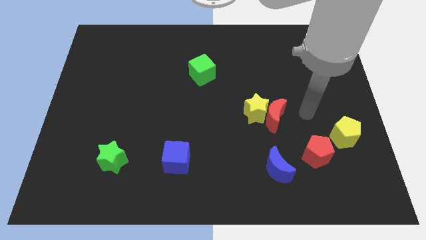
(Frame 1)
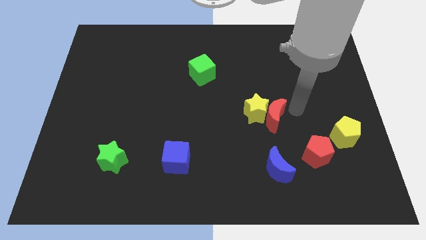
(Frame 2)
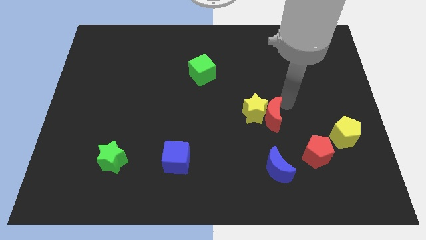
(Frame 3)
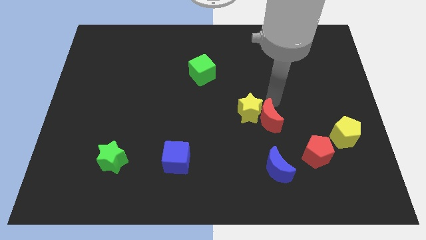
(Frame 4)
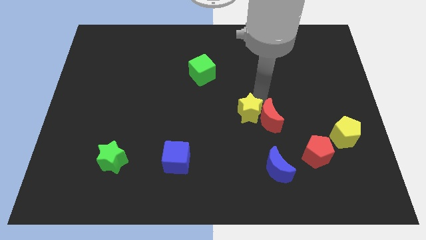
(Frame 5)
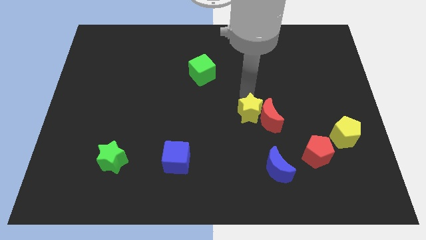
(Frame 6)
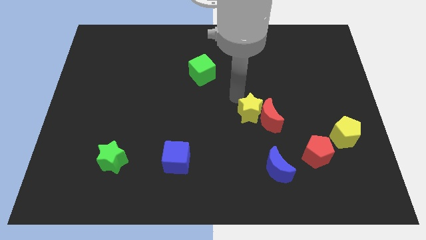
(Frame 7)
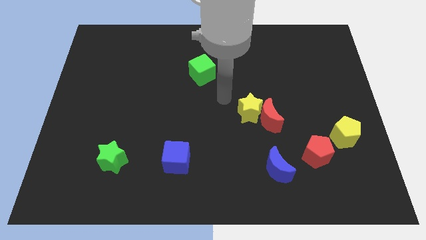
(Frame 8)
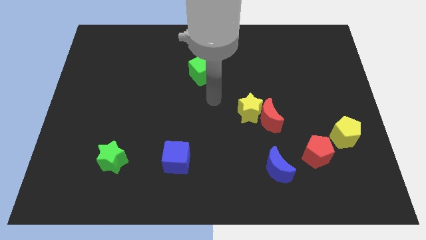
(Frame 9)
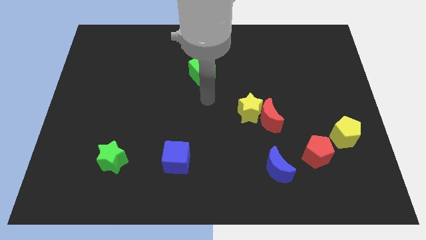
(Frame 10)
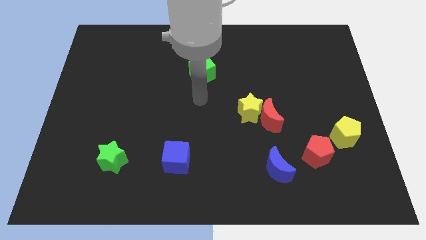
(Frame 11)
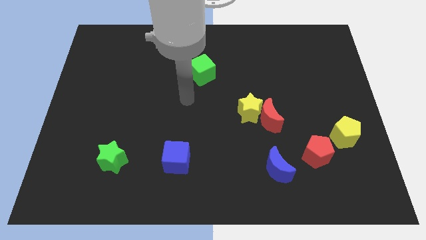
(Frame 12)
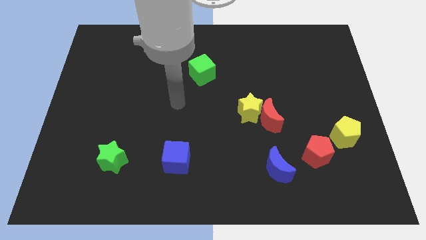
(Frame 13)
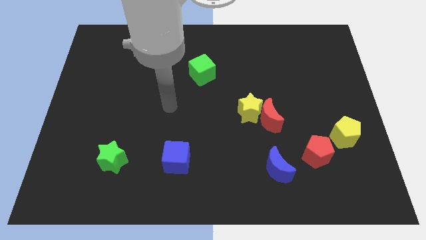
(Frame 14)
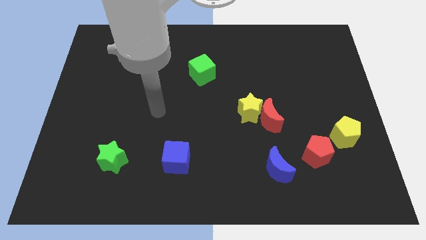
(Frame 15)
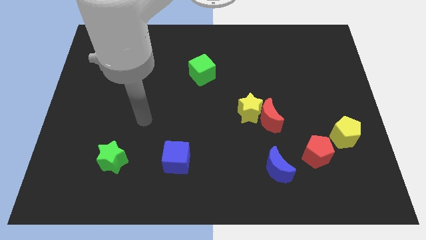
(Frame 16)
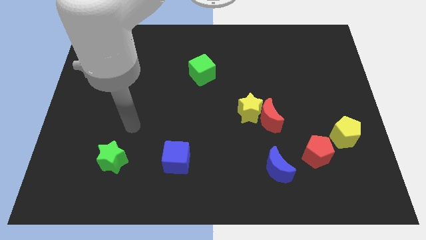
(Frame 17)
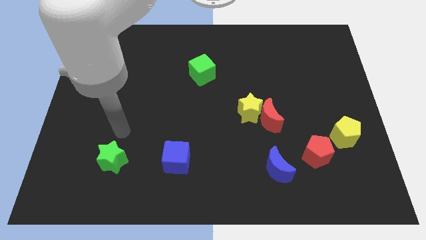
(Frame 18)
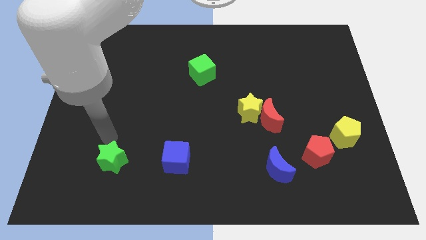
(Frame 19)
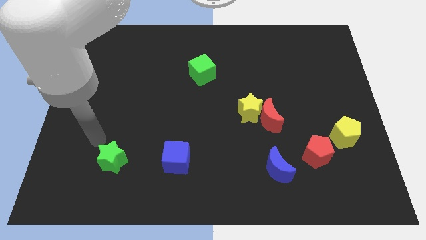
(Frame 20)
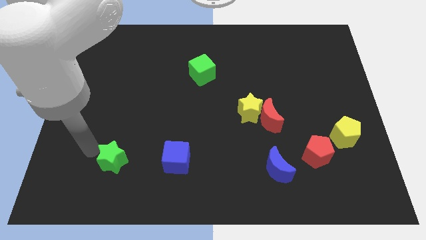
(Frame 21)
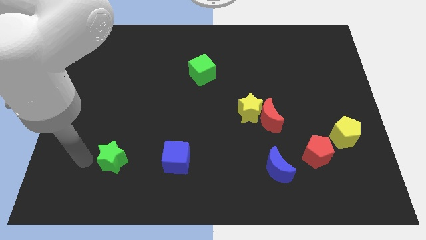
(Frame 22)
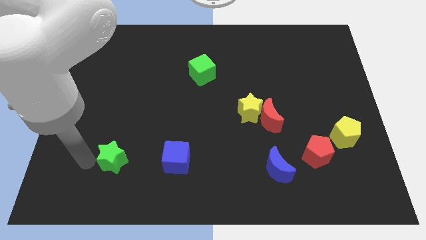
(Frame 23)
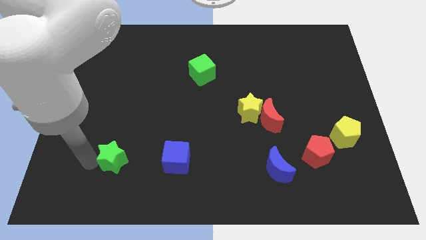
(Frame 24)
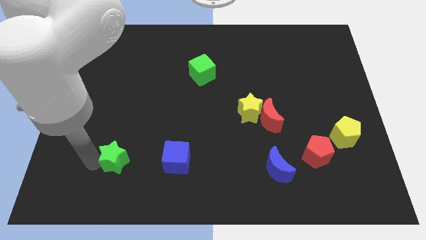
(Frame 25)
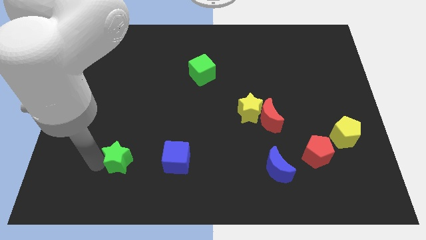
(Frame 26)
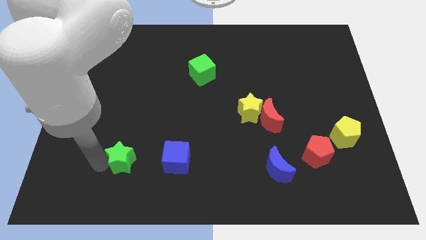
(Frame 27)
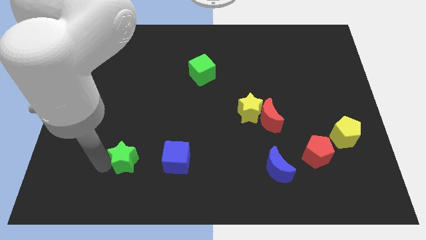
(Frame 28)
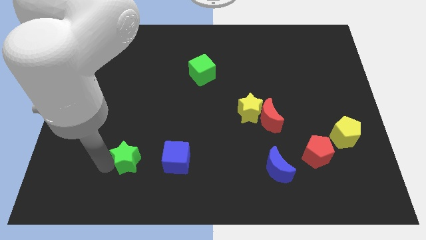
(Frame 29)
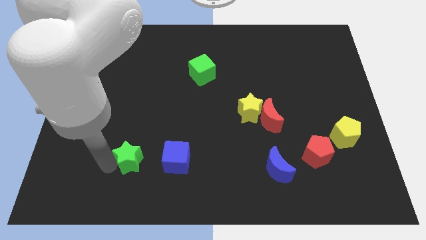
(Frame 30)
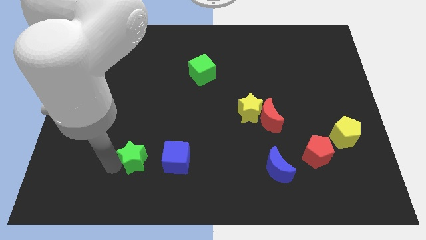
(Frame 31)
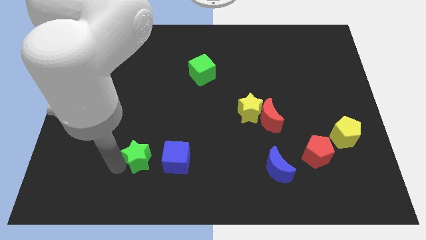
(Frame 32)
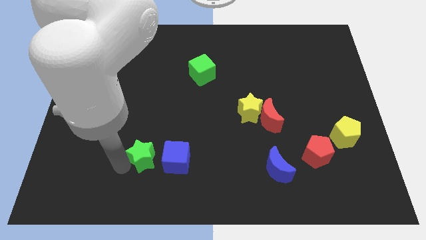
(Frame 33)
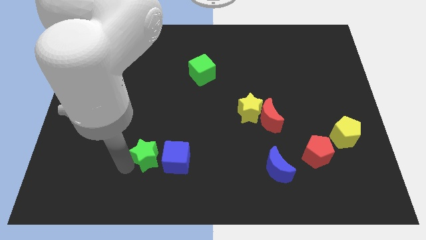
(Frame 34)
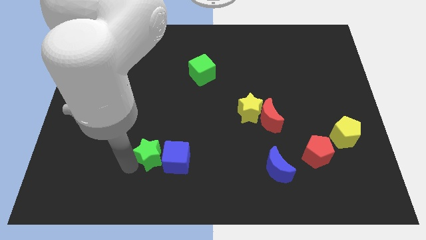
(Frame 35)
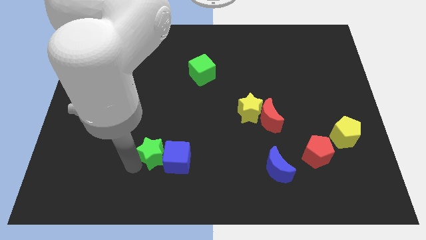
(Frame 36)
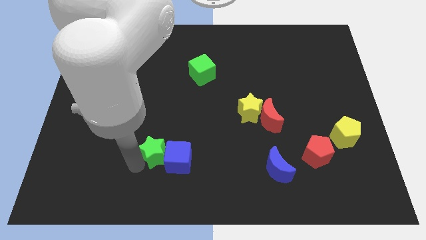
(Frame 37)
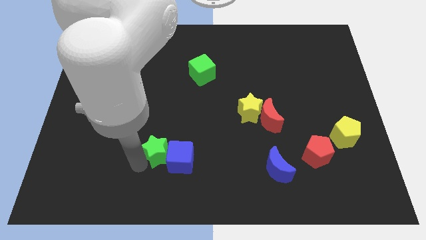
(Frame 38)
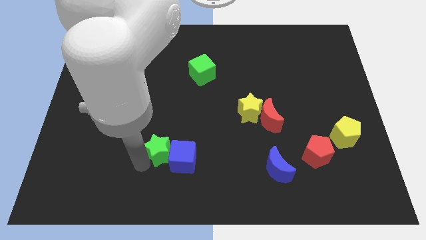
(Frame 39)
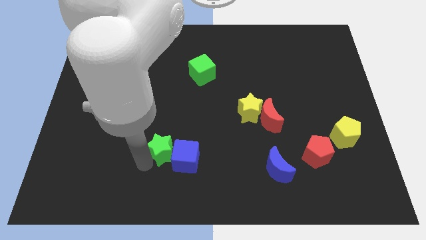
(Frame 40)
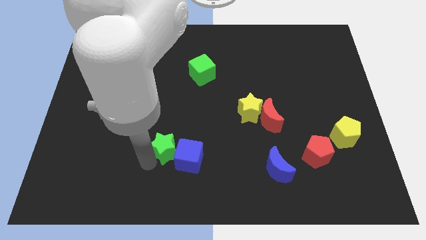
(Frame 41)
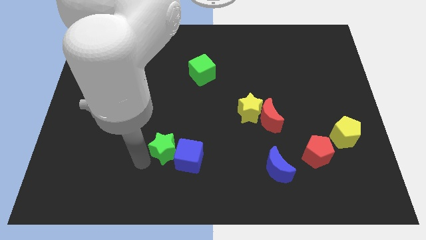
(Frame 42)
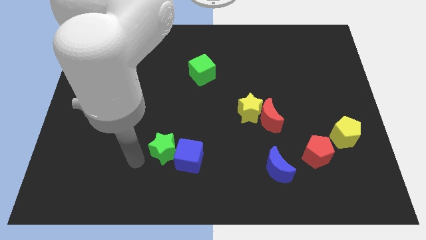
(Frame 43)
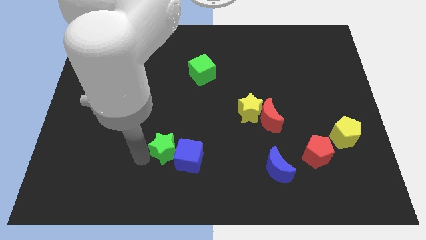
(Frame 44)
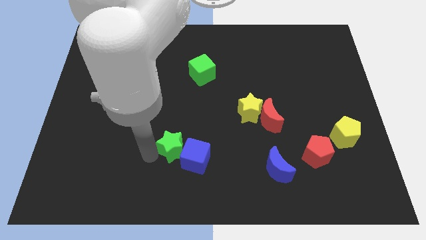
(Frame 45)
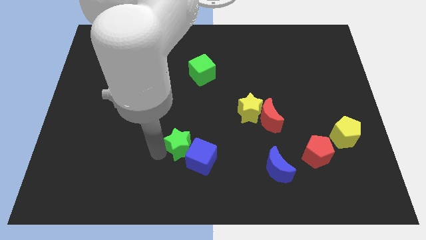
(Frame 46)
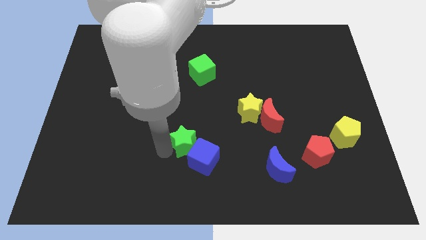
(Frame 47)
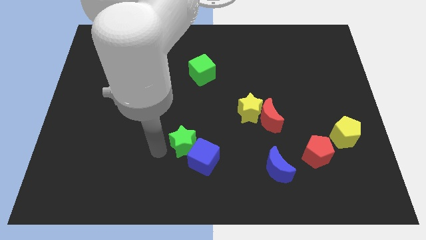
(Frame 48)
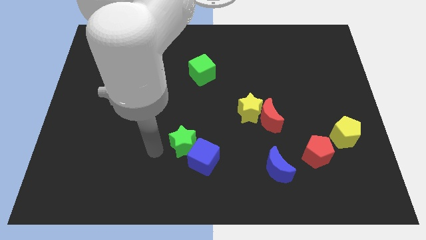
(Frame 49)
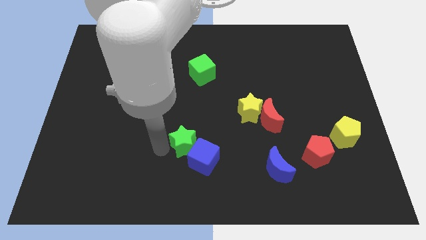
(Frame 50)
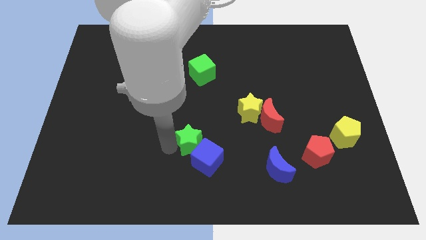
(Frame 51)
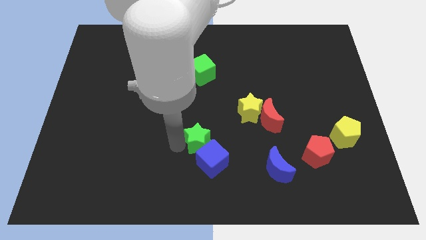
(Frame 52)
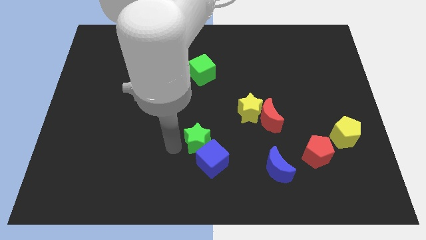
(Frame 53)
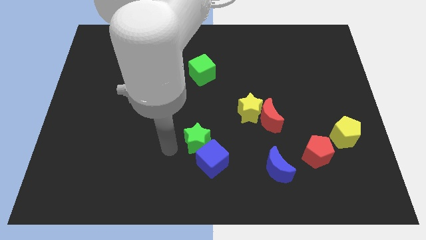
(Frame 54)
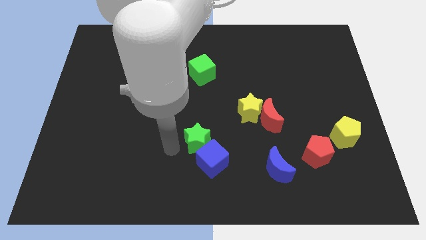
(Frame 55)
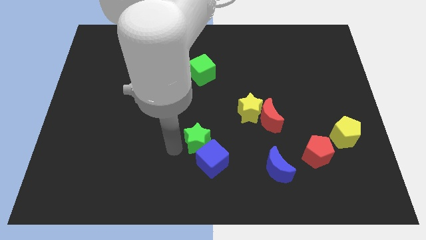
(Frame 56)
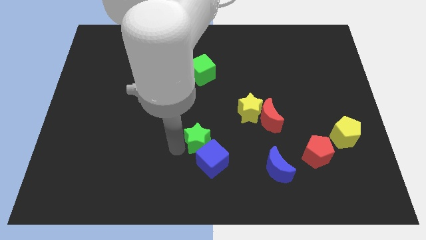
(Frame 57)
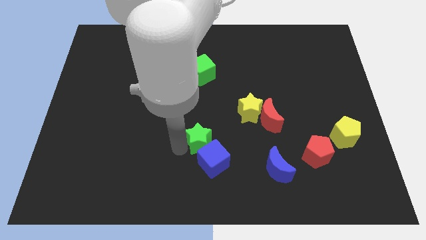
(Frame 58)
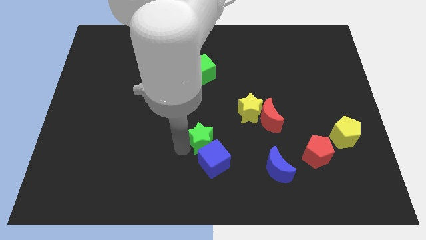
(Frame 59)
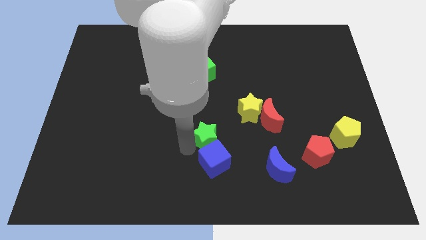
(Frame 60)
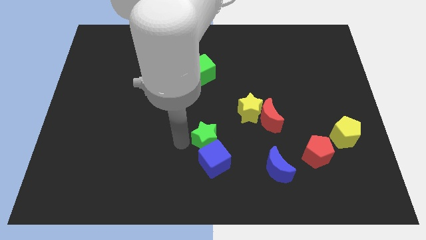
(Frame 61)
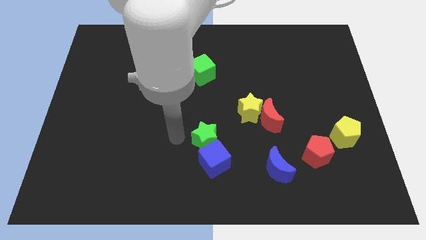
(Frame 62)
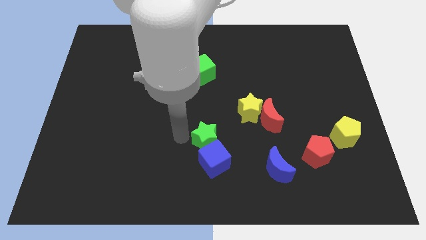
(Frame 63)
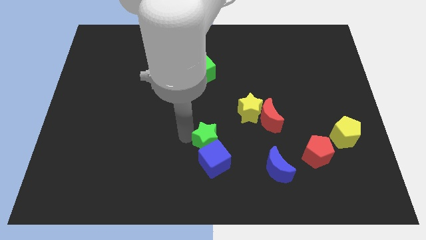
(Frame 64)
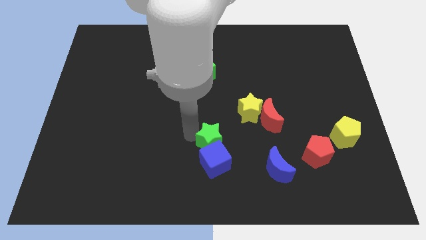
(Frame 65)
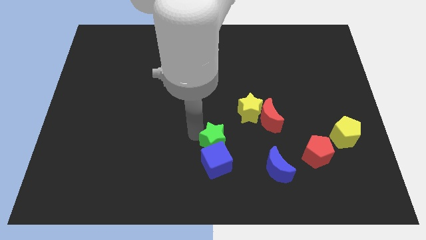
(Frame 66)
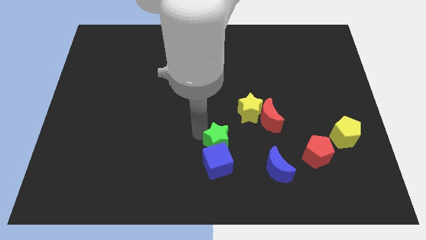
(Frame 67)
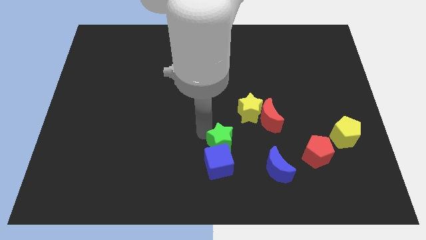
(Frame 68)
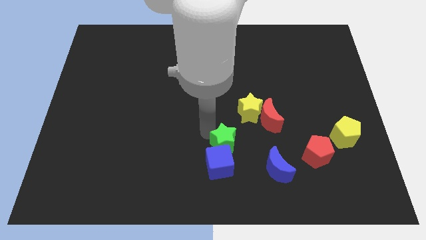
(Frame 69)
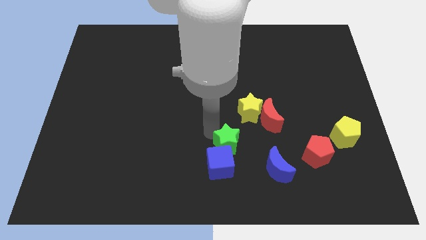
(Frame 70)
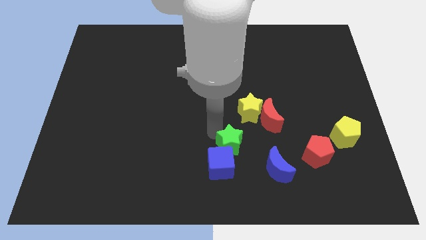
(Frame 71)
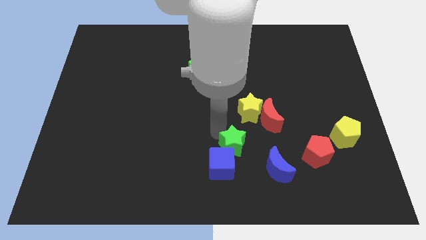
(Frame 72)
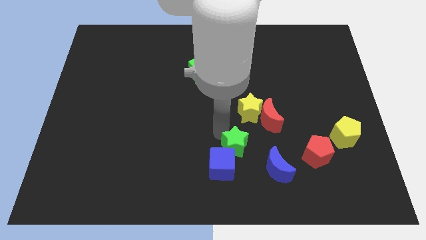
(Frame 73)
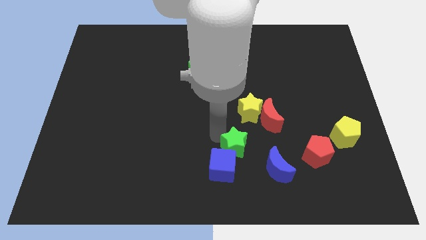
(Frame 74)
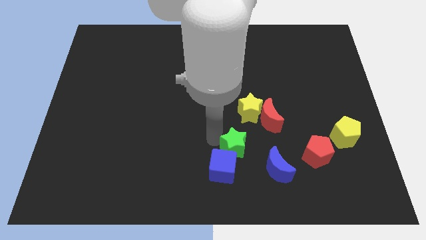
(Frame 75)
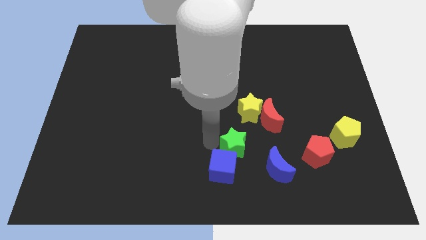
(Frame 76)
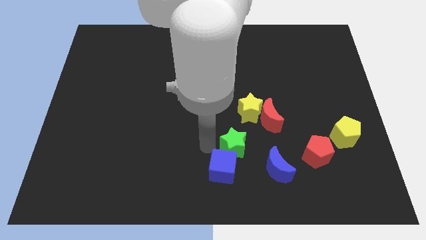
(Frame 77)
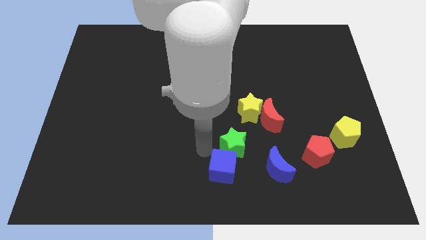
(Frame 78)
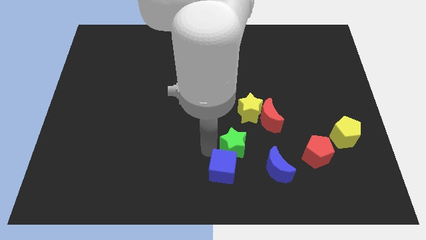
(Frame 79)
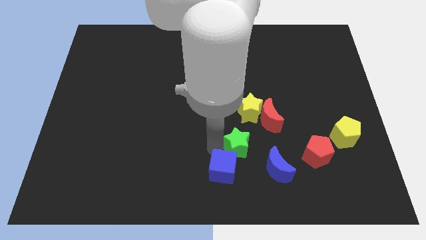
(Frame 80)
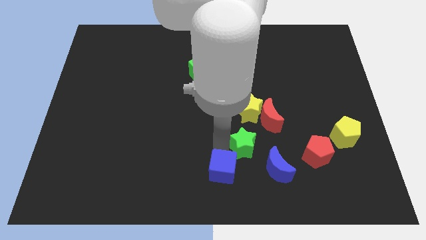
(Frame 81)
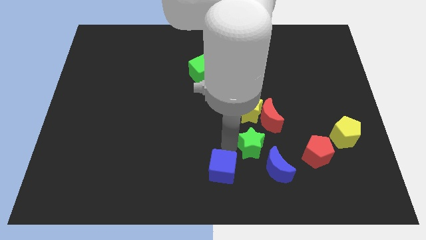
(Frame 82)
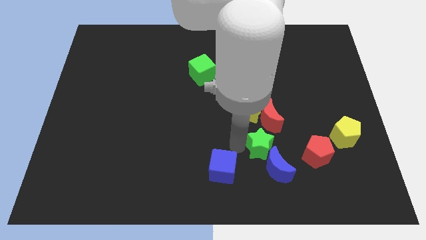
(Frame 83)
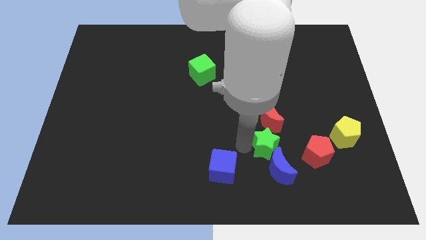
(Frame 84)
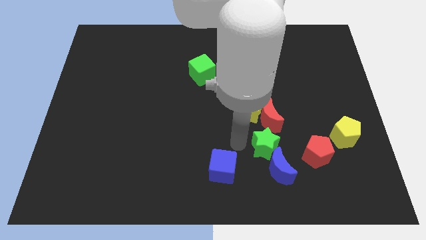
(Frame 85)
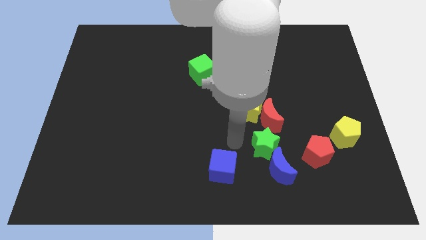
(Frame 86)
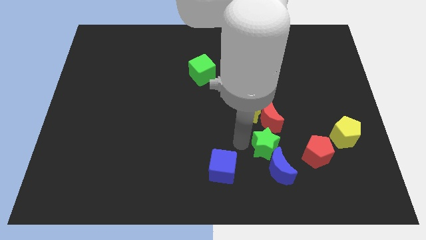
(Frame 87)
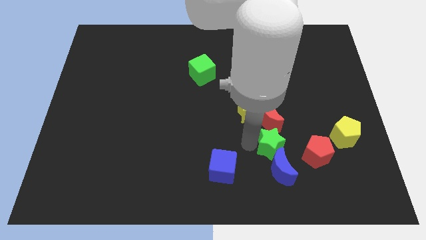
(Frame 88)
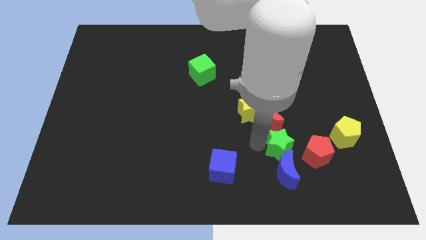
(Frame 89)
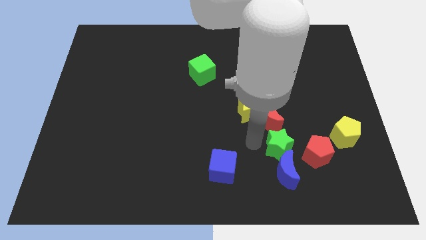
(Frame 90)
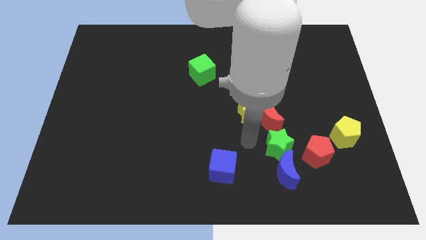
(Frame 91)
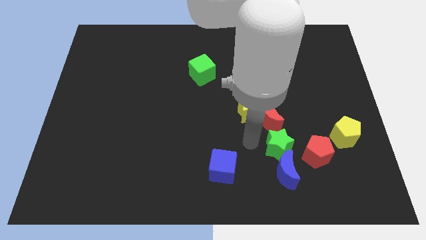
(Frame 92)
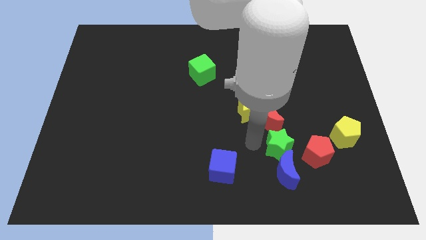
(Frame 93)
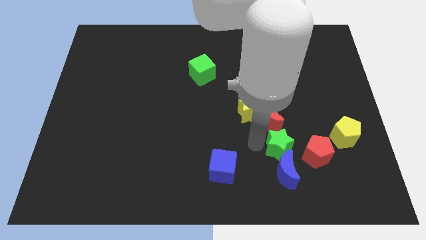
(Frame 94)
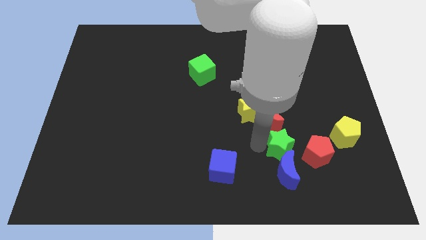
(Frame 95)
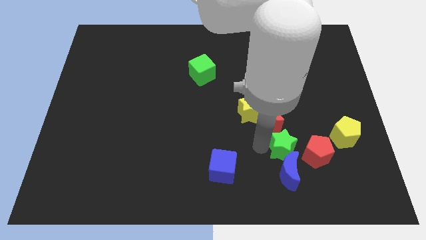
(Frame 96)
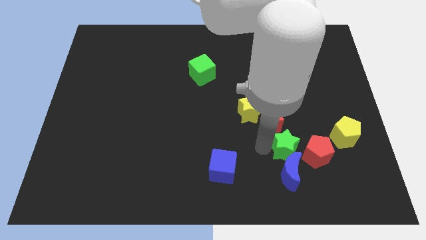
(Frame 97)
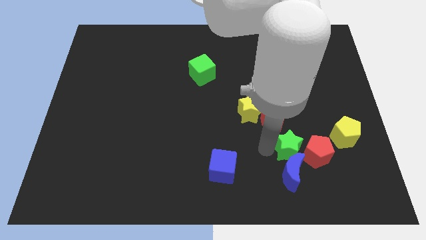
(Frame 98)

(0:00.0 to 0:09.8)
slide the green star next to the red pentagon
